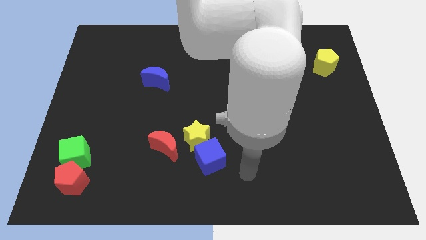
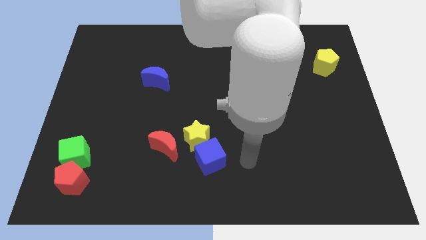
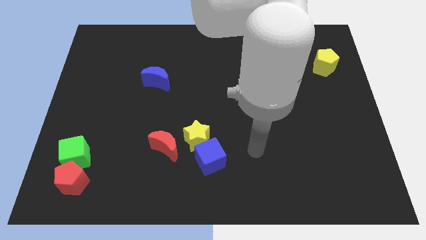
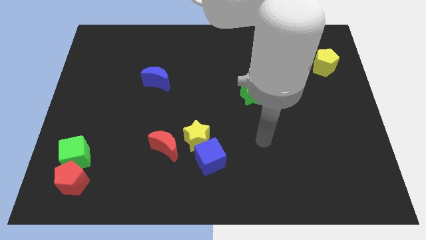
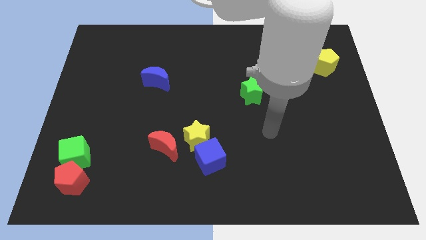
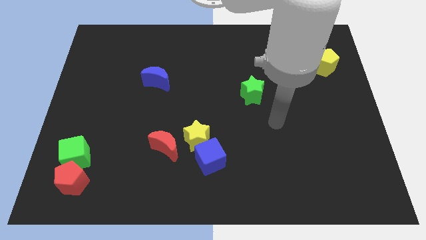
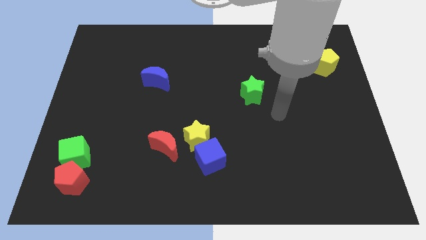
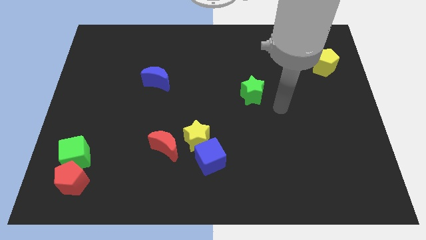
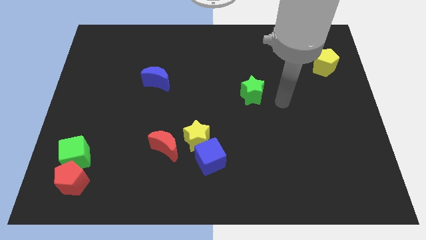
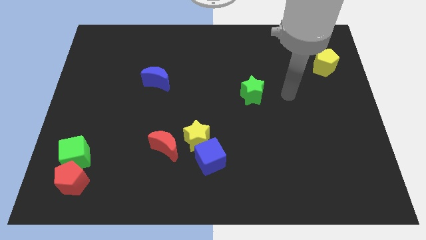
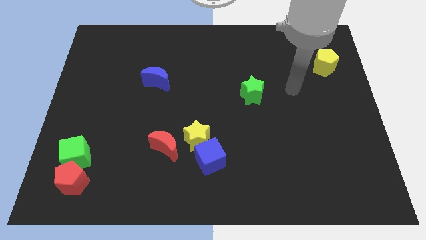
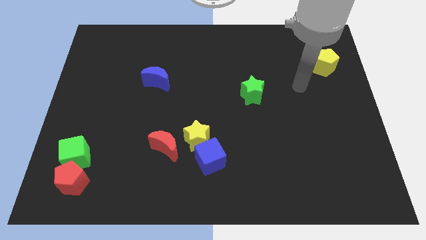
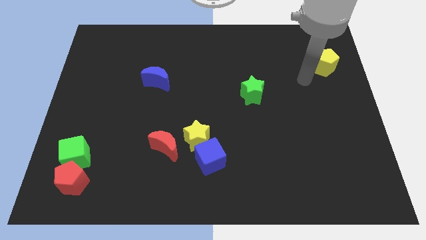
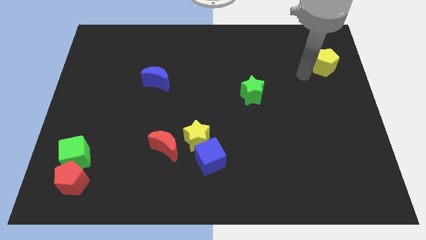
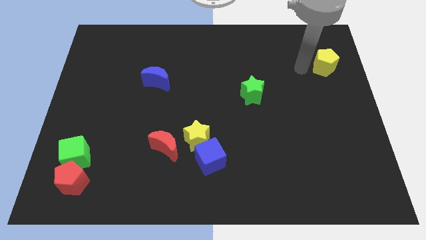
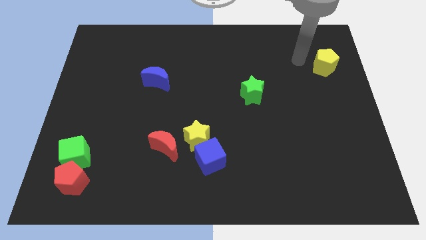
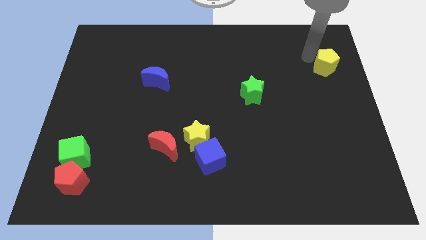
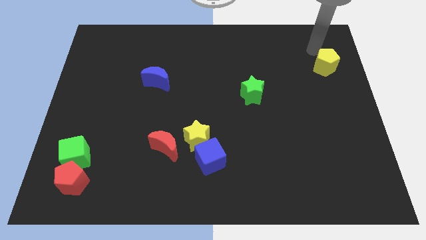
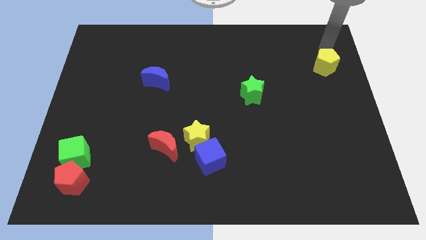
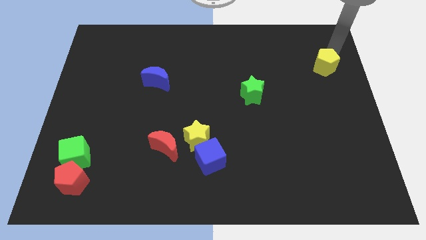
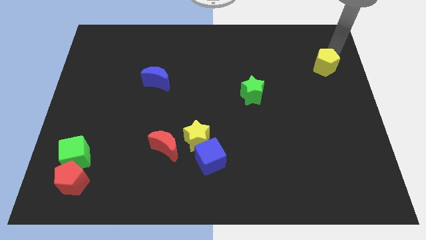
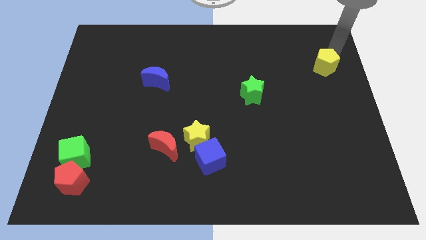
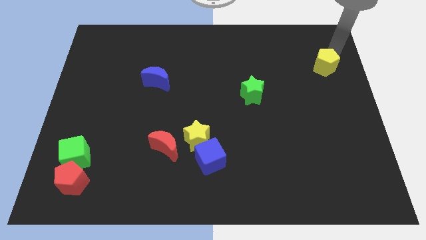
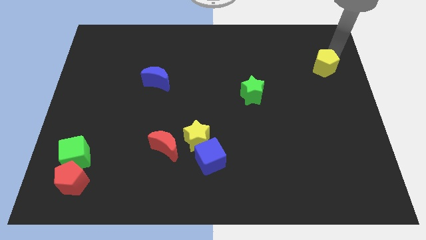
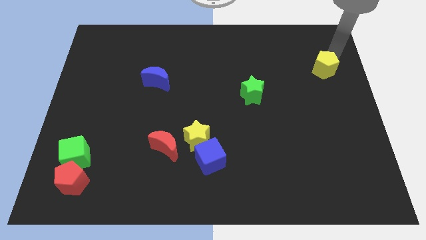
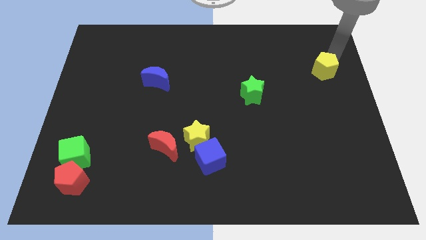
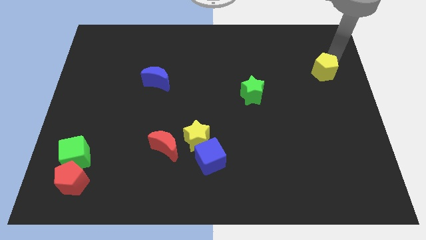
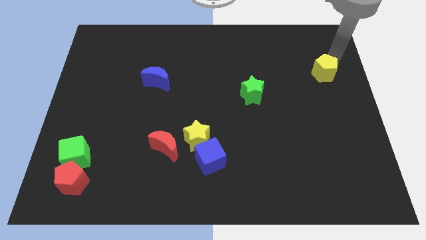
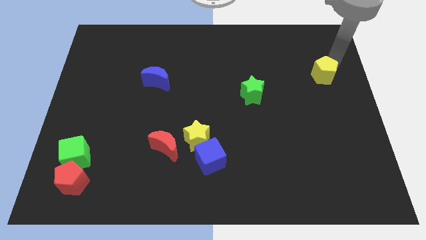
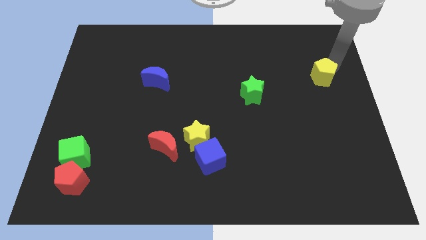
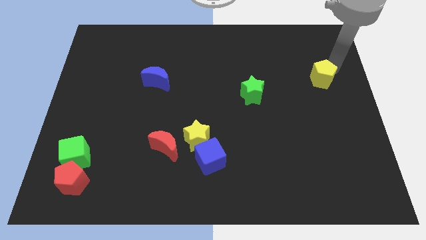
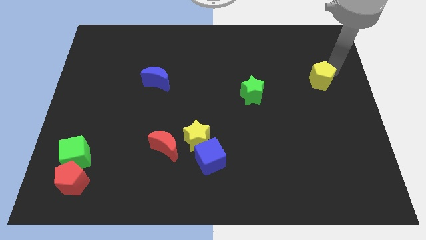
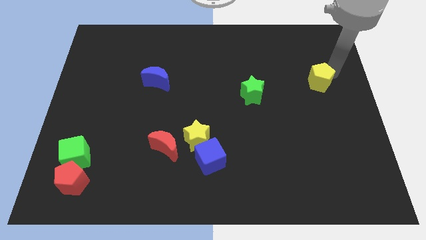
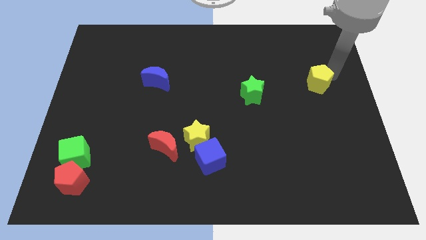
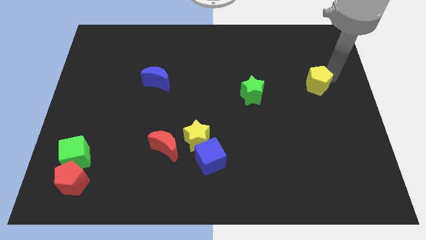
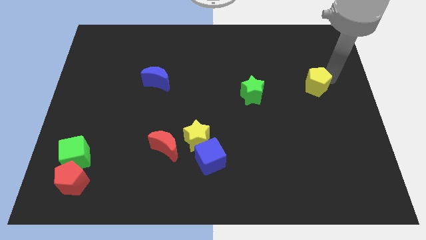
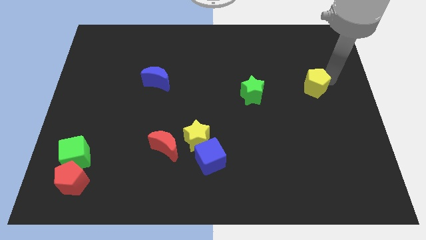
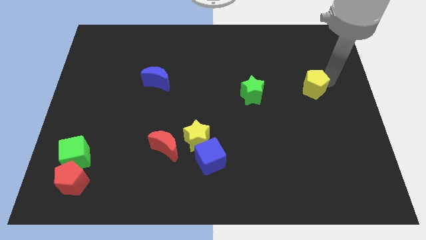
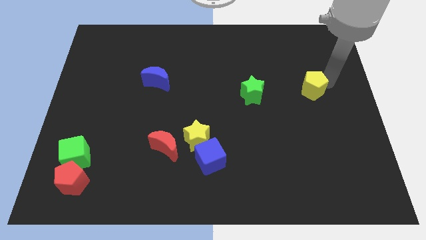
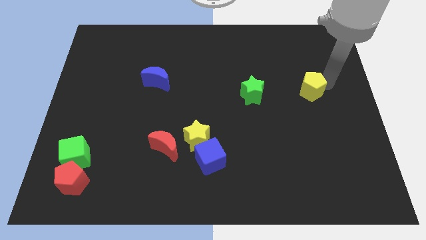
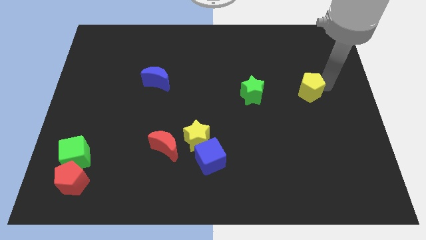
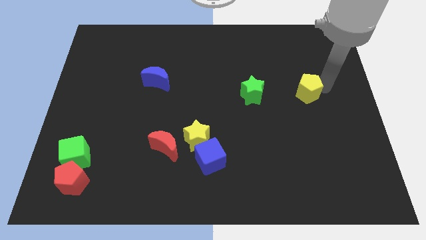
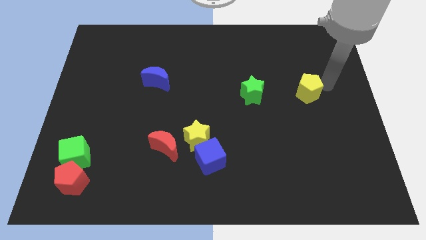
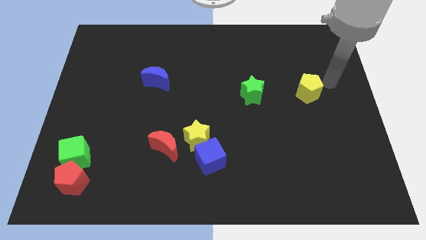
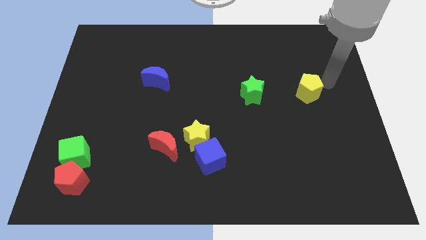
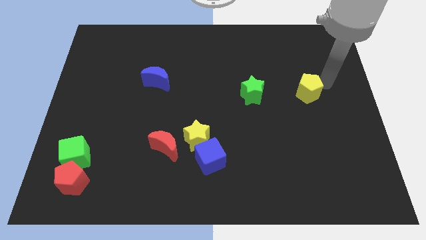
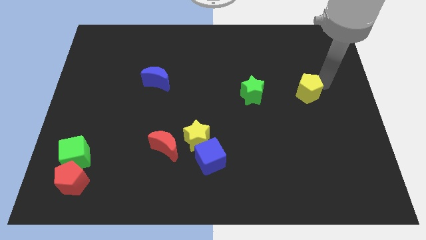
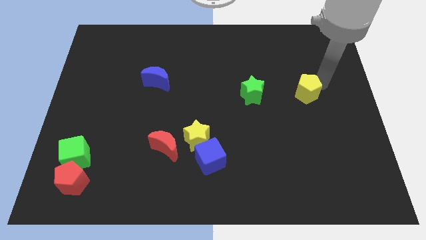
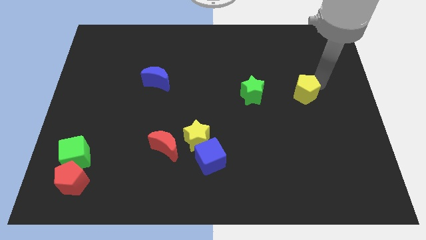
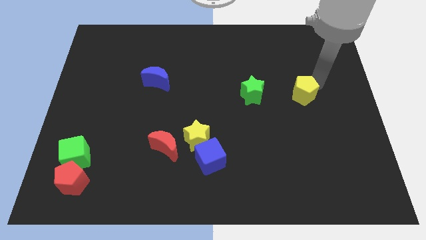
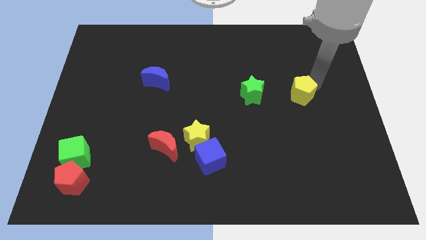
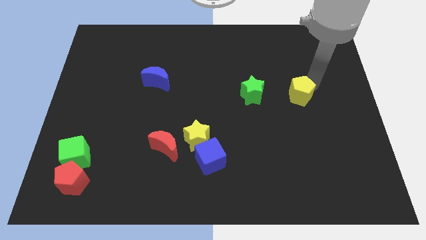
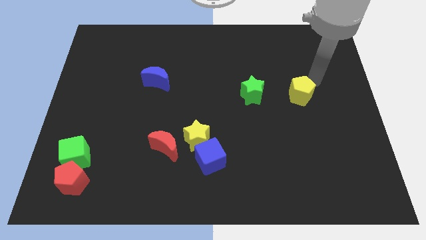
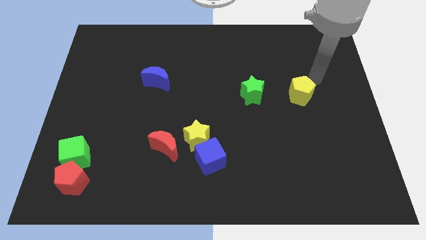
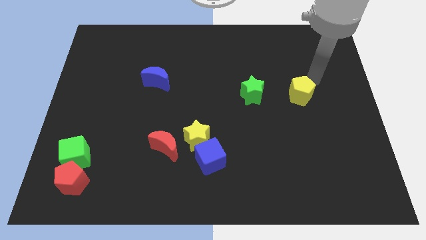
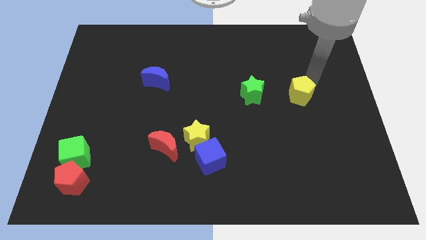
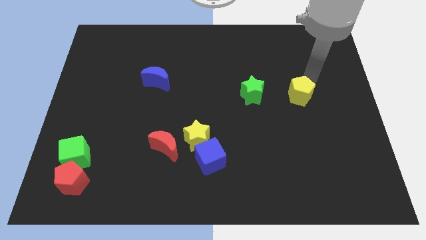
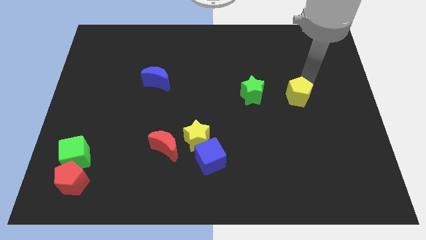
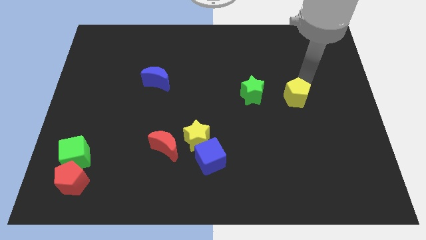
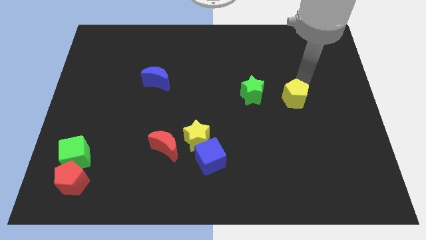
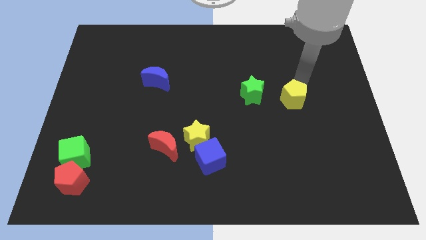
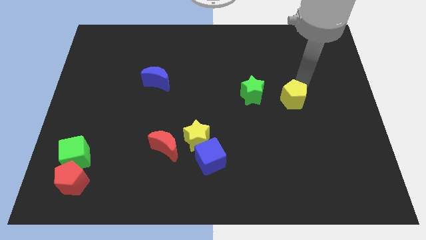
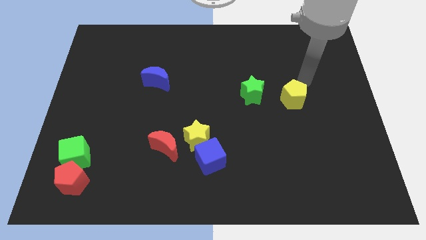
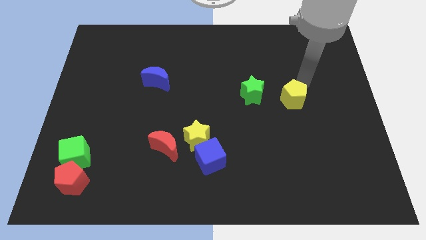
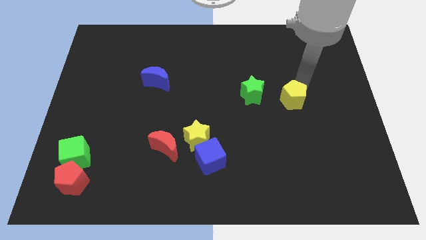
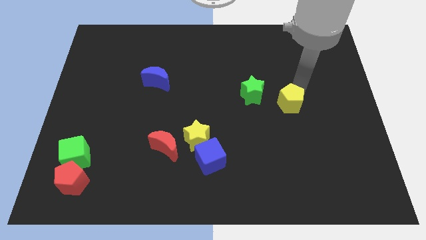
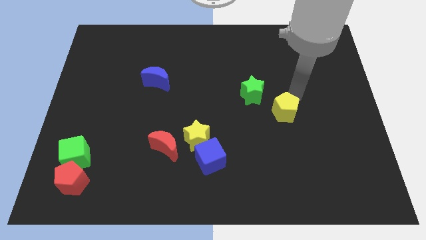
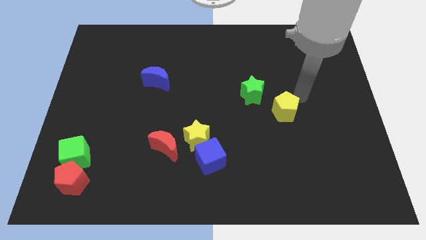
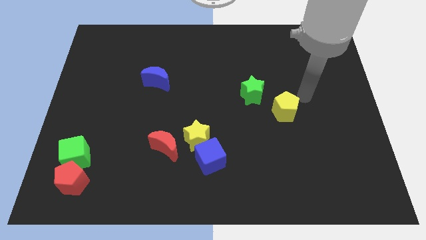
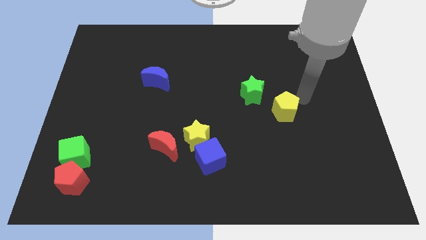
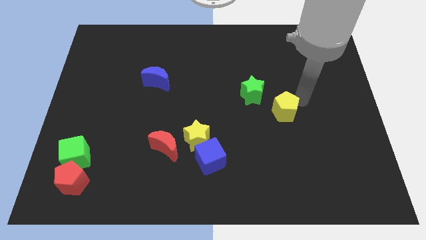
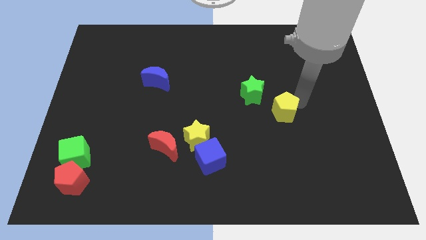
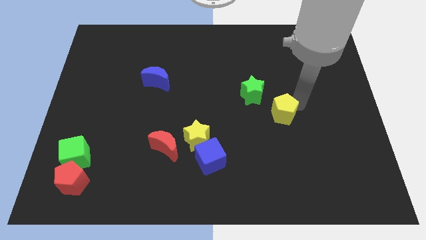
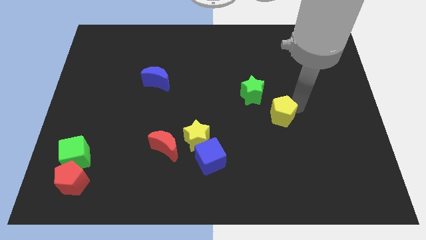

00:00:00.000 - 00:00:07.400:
push the yellow pentagon downwards and then to the left

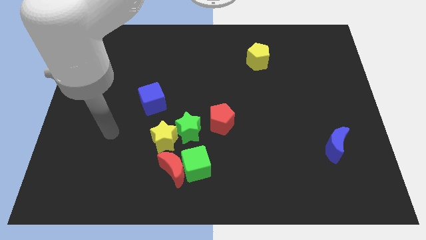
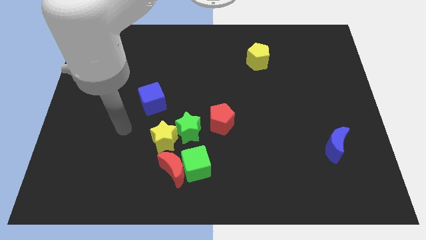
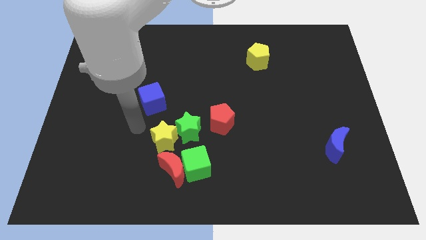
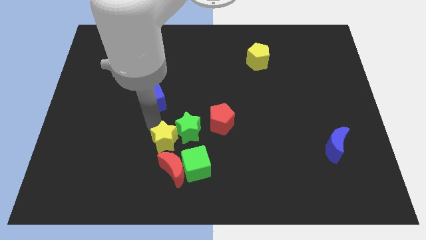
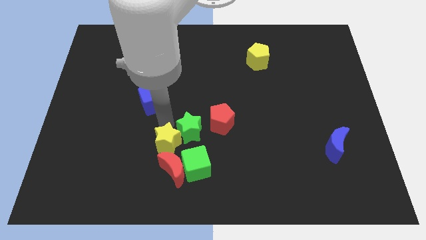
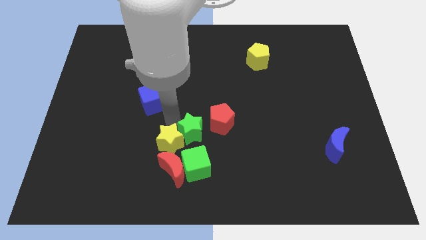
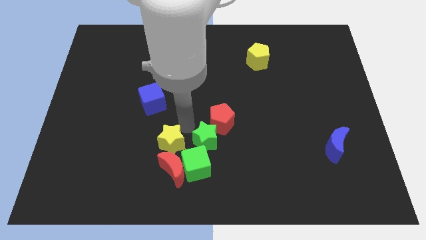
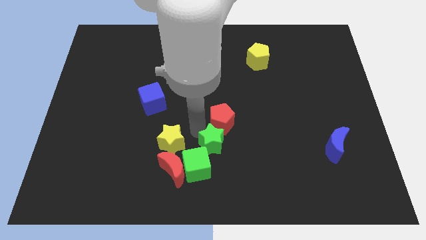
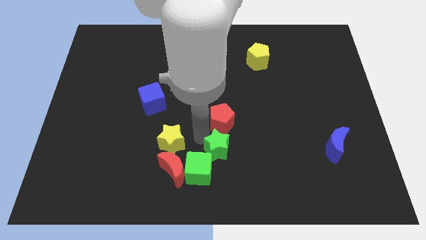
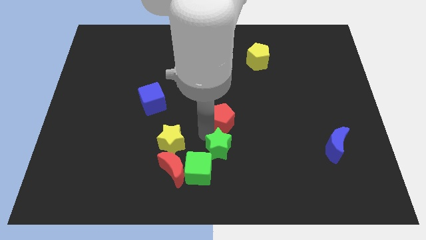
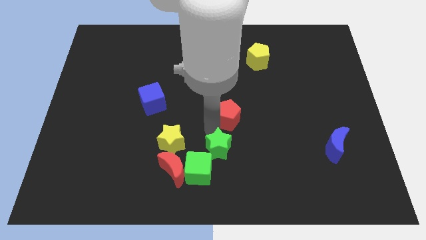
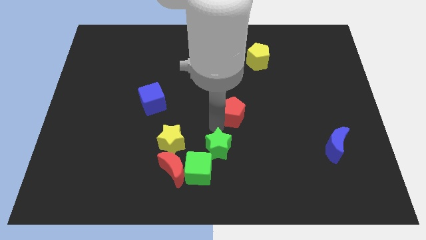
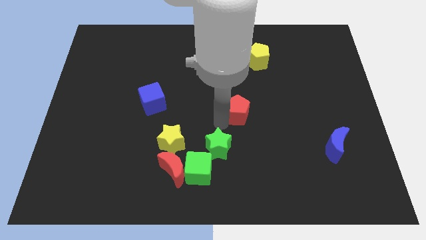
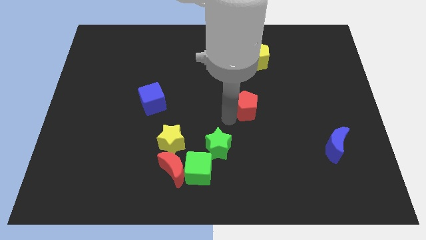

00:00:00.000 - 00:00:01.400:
push the red pentagon upwards and to the right a little bit
